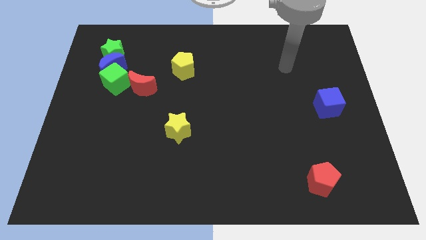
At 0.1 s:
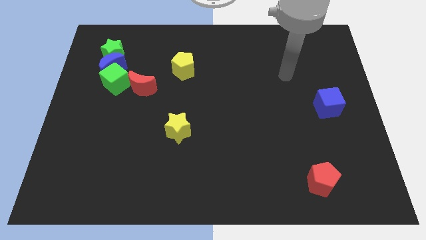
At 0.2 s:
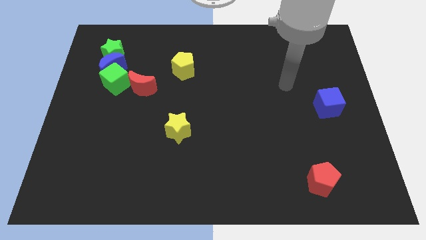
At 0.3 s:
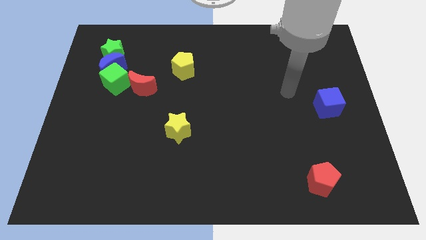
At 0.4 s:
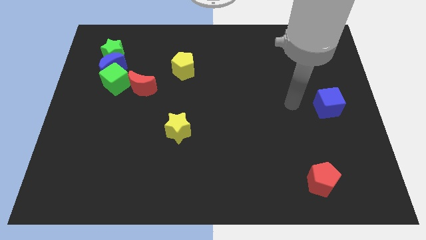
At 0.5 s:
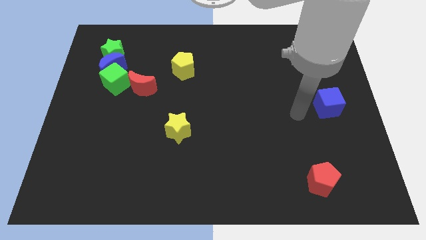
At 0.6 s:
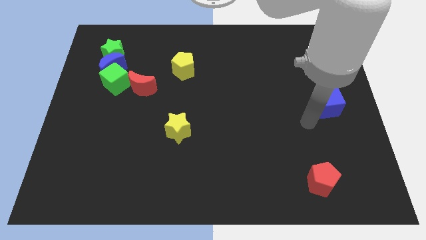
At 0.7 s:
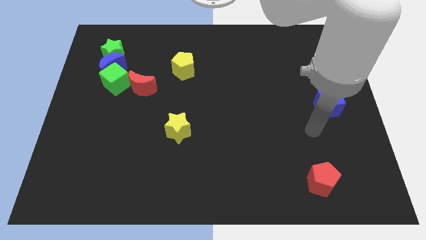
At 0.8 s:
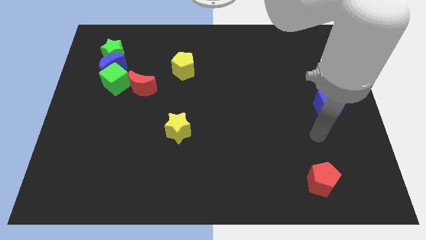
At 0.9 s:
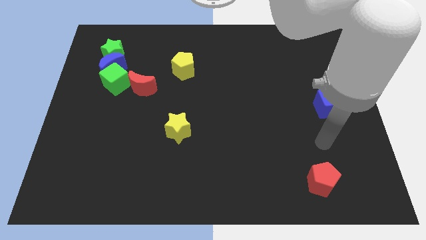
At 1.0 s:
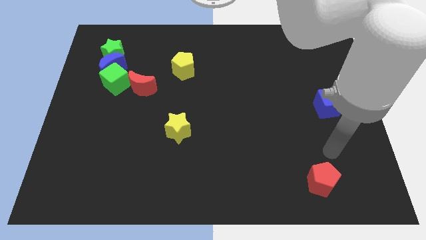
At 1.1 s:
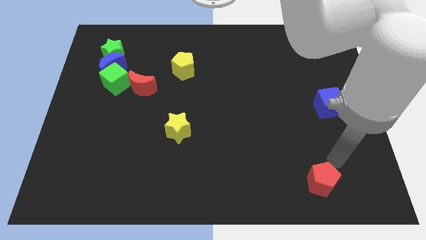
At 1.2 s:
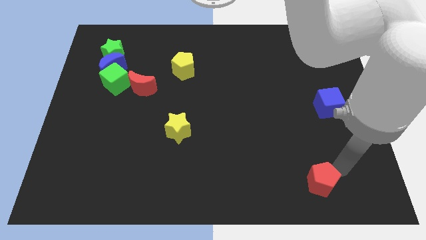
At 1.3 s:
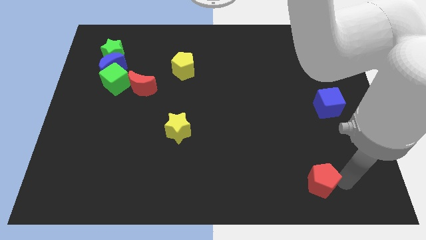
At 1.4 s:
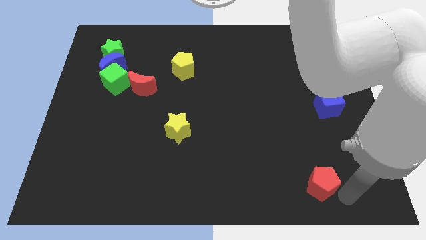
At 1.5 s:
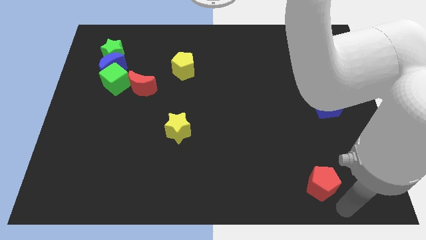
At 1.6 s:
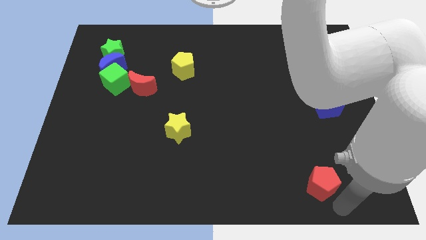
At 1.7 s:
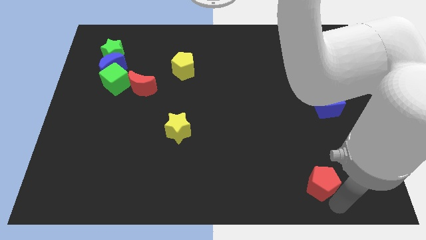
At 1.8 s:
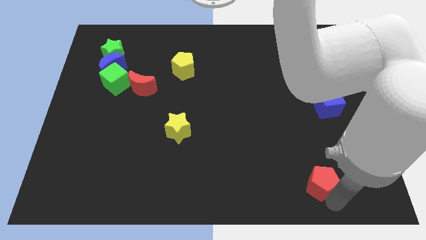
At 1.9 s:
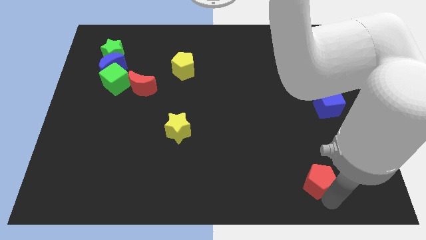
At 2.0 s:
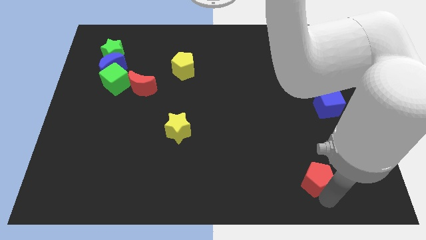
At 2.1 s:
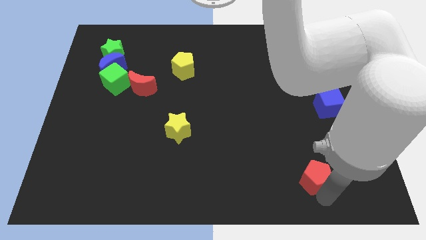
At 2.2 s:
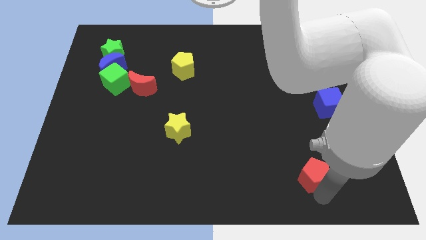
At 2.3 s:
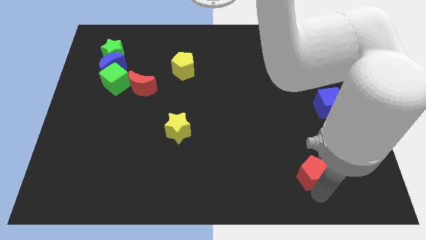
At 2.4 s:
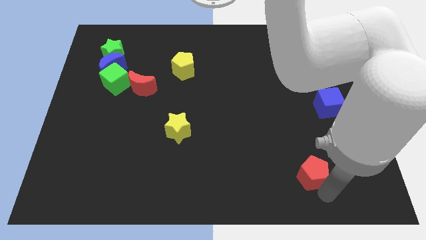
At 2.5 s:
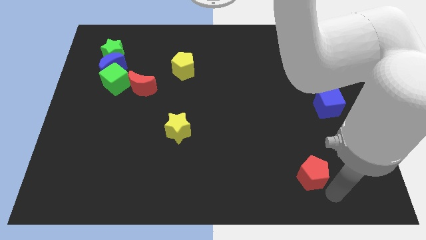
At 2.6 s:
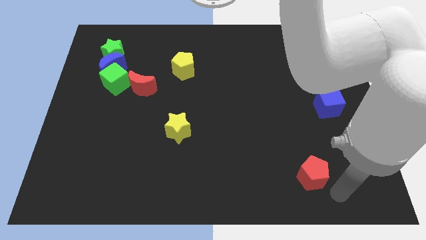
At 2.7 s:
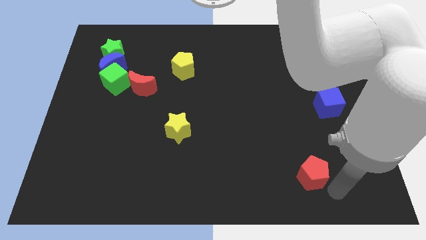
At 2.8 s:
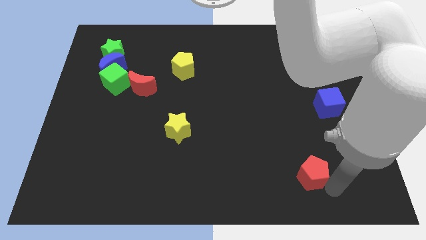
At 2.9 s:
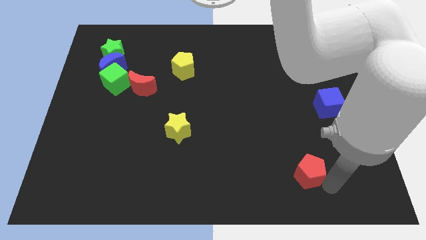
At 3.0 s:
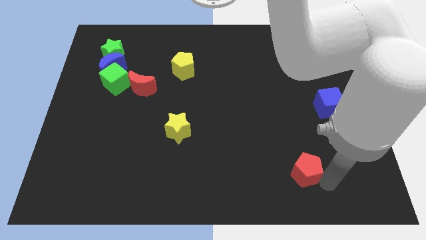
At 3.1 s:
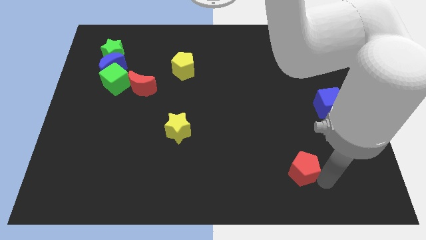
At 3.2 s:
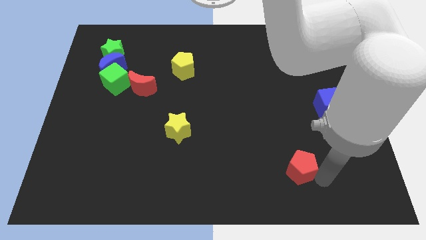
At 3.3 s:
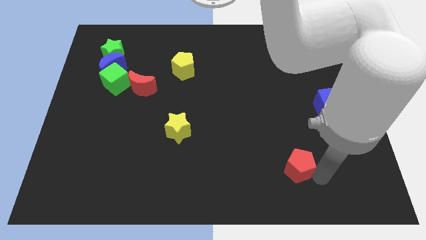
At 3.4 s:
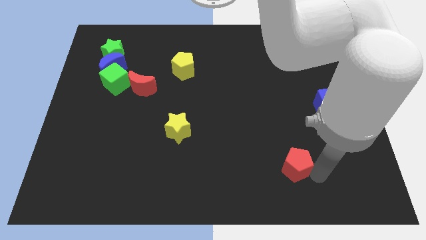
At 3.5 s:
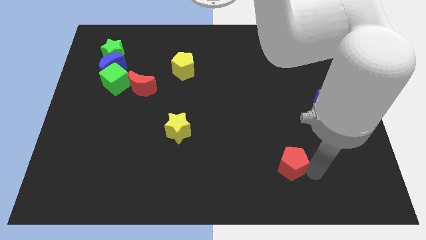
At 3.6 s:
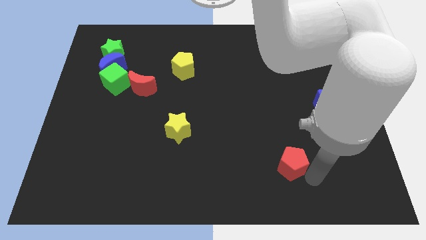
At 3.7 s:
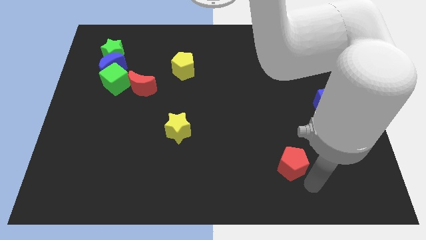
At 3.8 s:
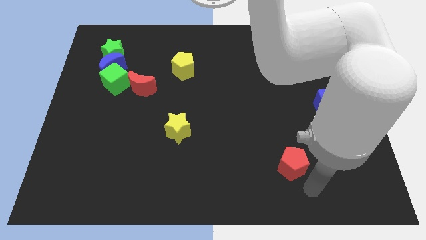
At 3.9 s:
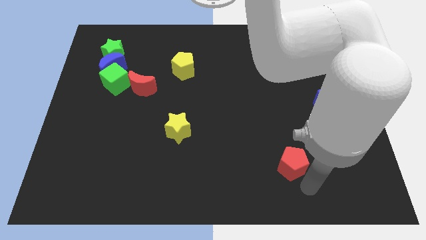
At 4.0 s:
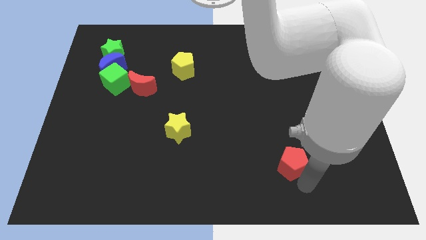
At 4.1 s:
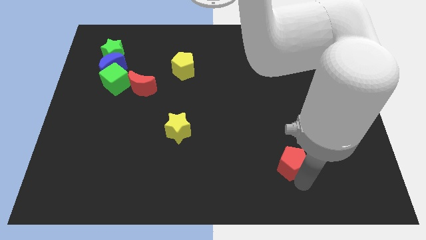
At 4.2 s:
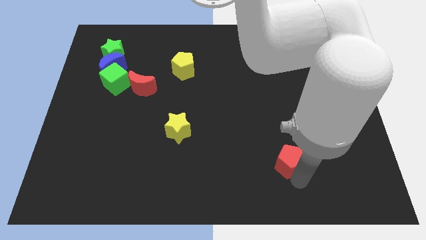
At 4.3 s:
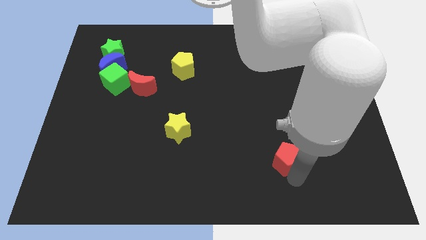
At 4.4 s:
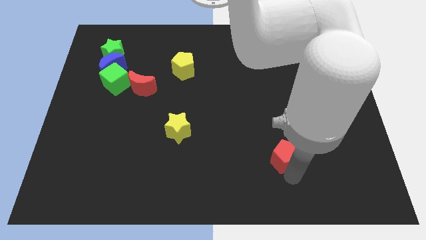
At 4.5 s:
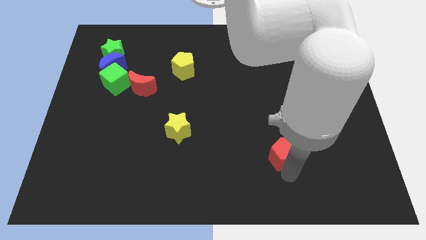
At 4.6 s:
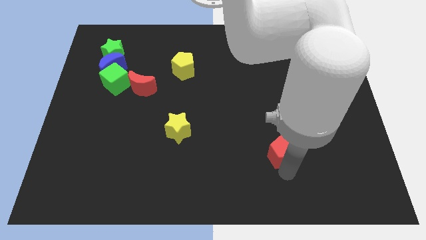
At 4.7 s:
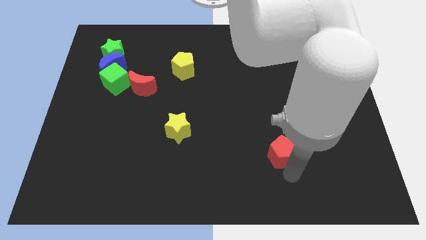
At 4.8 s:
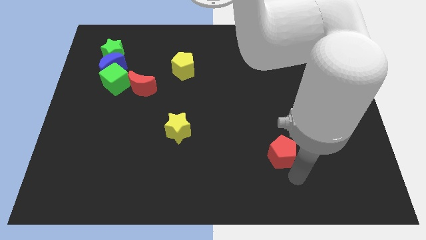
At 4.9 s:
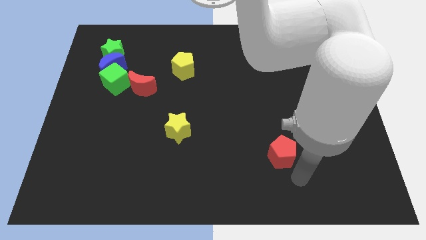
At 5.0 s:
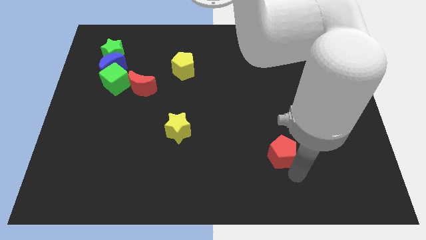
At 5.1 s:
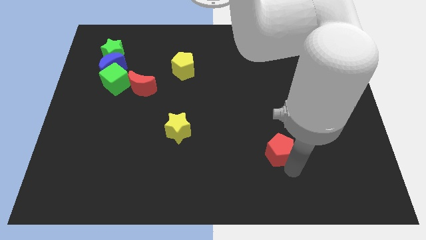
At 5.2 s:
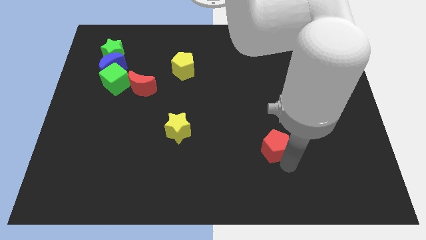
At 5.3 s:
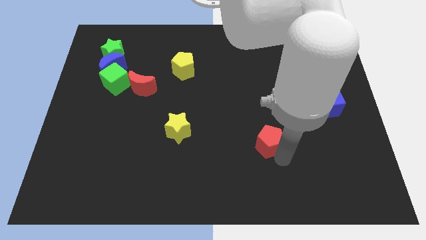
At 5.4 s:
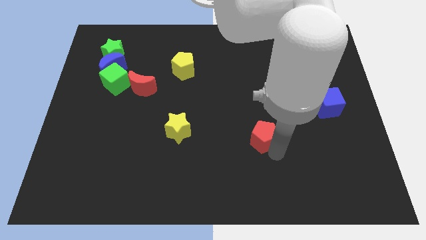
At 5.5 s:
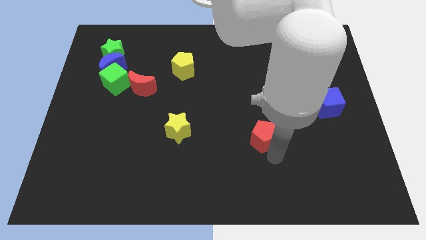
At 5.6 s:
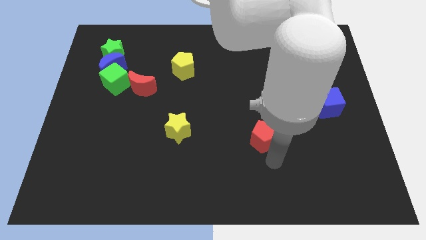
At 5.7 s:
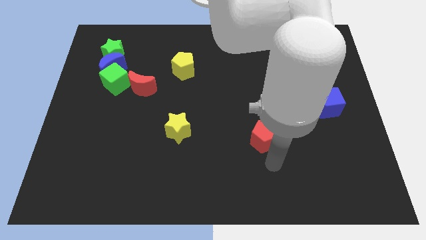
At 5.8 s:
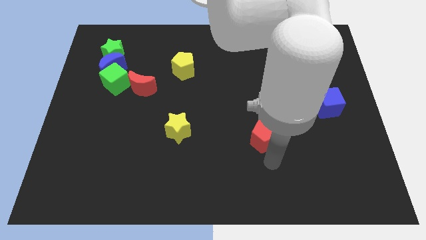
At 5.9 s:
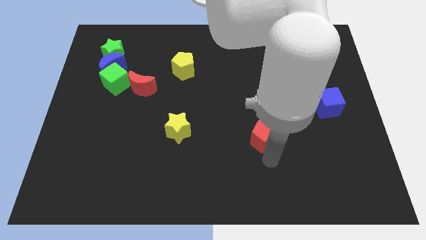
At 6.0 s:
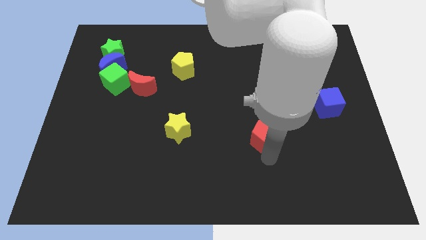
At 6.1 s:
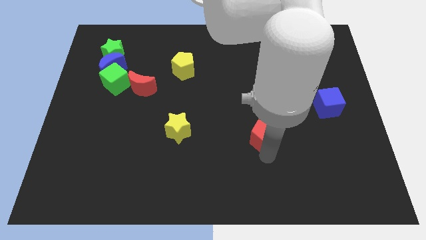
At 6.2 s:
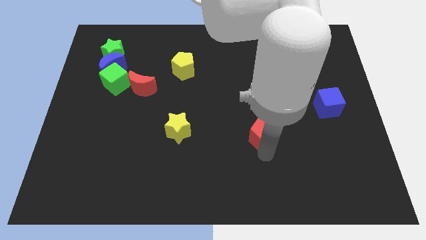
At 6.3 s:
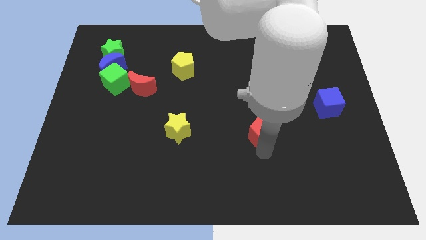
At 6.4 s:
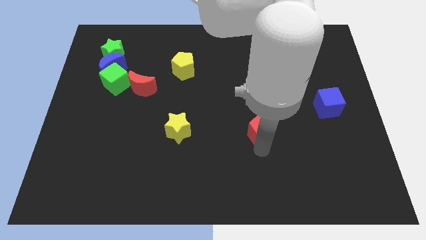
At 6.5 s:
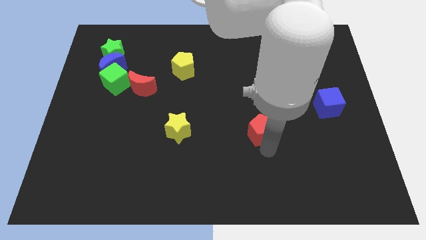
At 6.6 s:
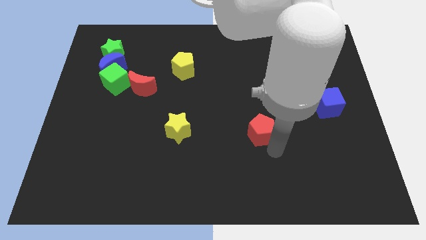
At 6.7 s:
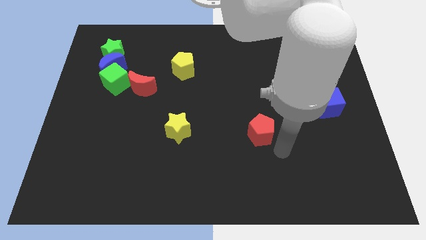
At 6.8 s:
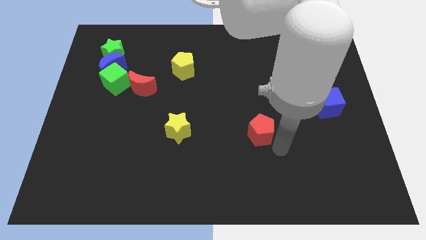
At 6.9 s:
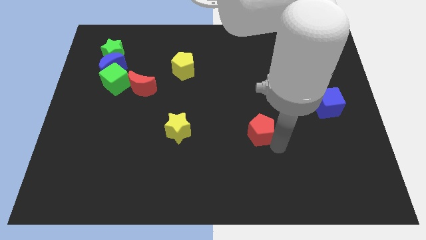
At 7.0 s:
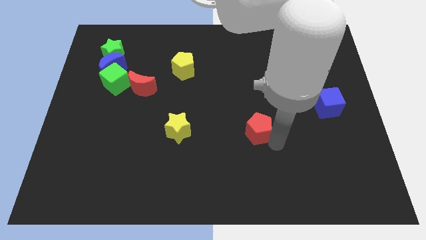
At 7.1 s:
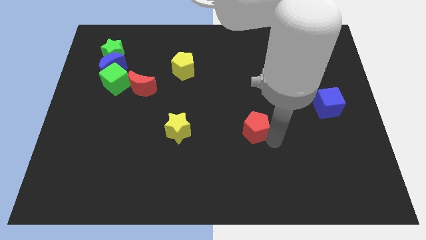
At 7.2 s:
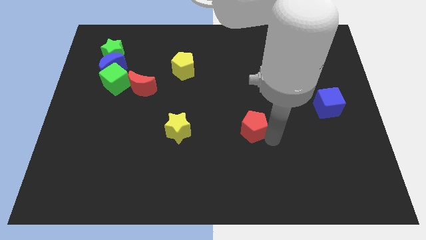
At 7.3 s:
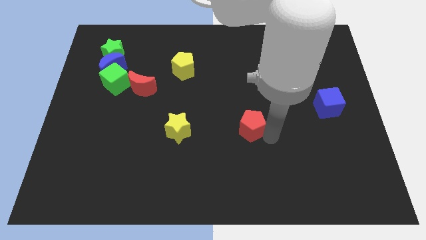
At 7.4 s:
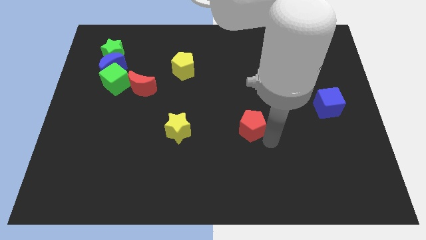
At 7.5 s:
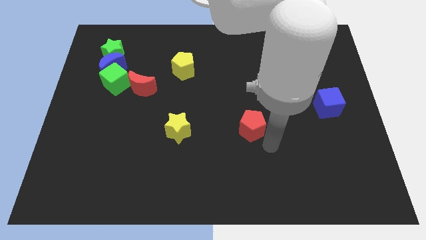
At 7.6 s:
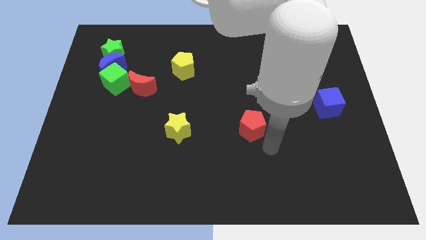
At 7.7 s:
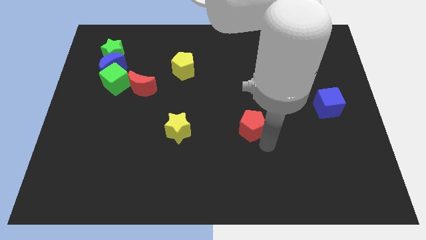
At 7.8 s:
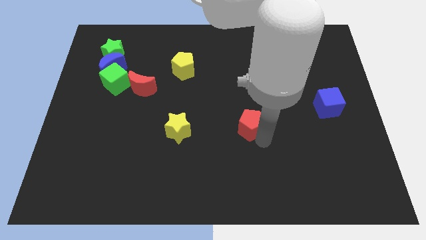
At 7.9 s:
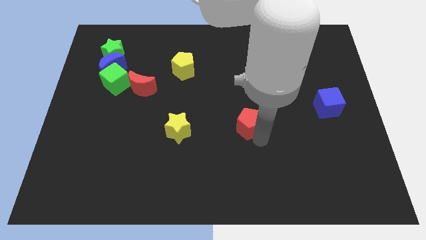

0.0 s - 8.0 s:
push the red pentagon up and to the left
